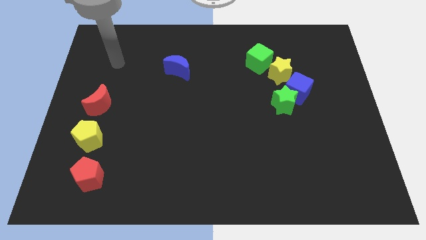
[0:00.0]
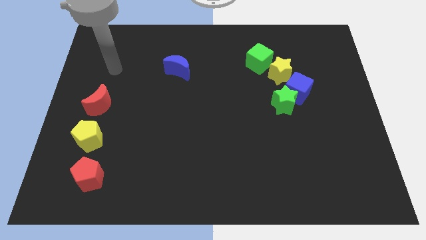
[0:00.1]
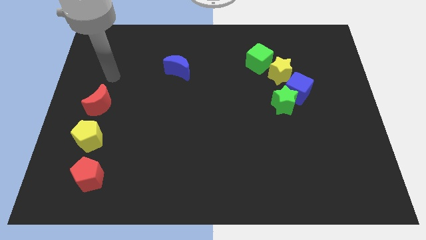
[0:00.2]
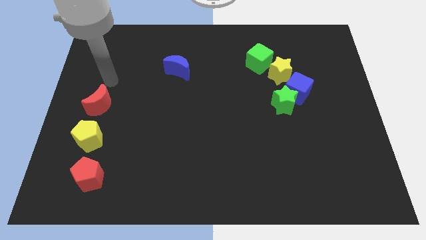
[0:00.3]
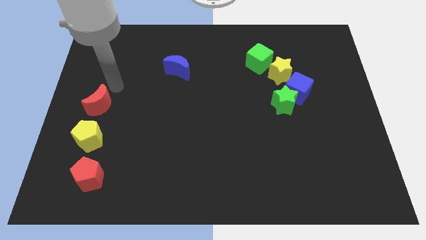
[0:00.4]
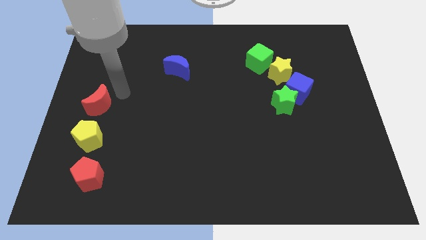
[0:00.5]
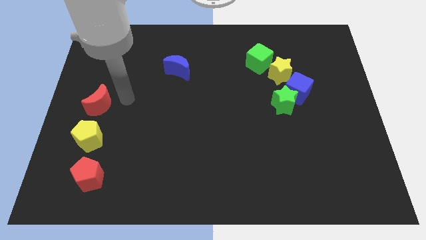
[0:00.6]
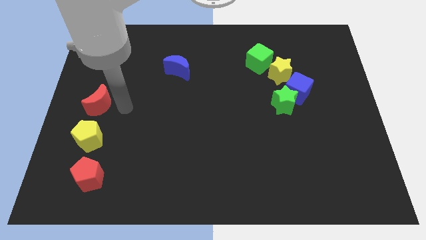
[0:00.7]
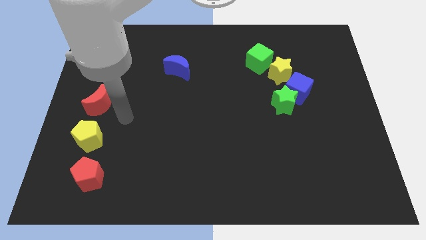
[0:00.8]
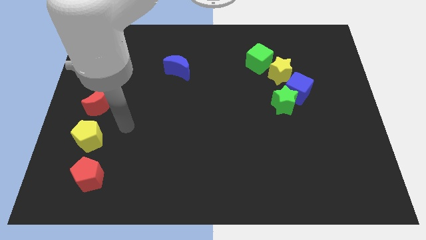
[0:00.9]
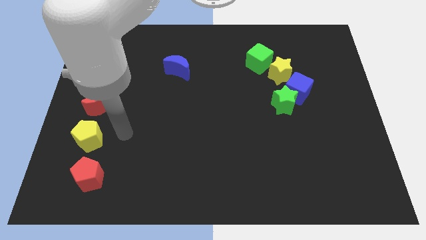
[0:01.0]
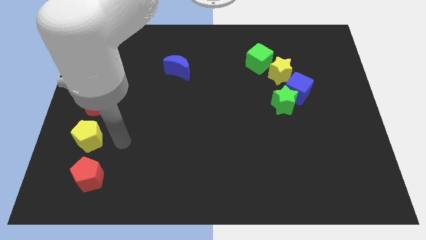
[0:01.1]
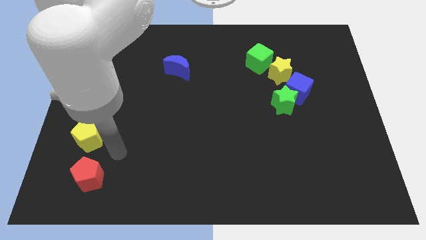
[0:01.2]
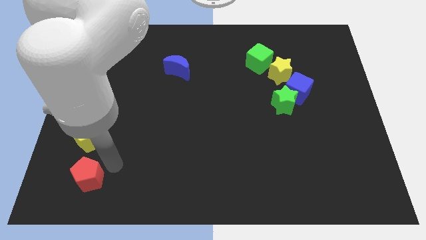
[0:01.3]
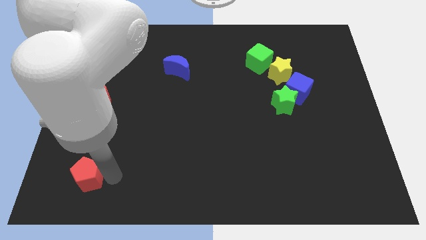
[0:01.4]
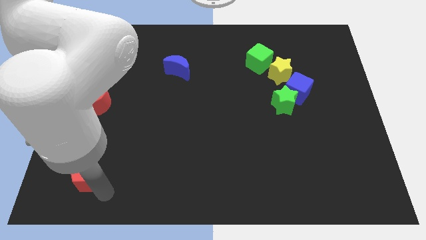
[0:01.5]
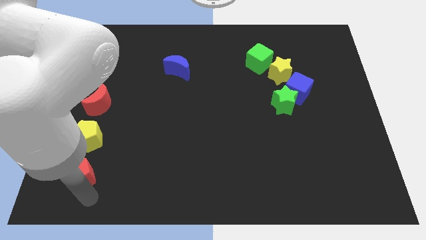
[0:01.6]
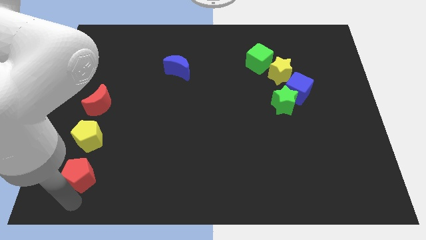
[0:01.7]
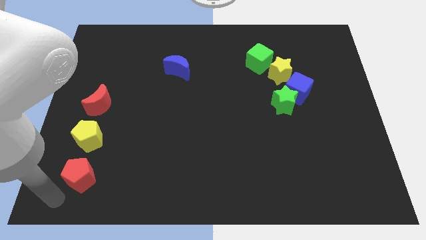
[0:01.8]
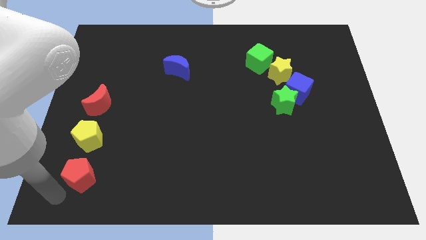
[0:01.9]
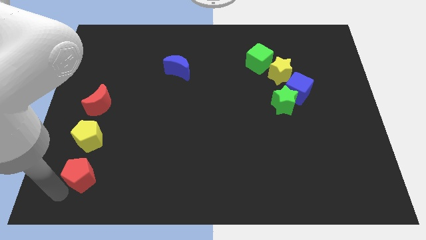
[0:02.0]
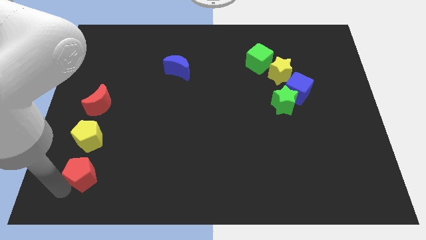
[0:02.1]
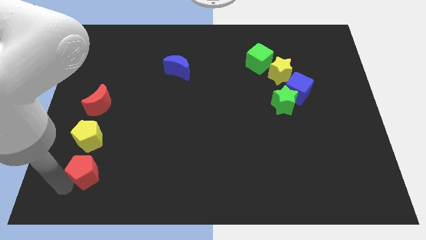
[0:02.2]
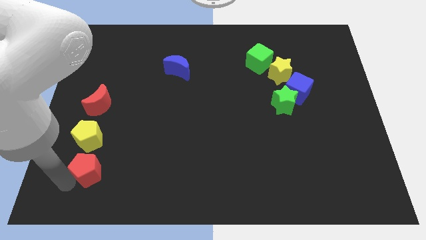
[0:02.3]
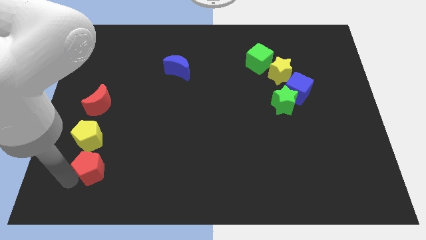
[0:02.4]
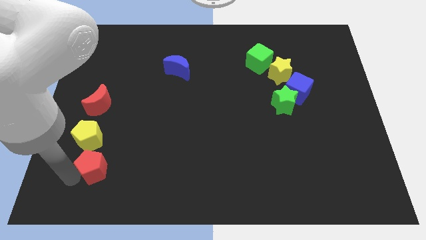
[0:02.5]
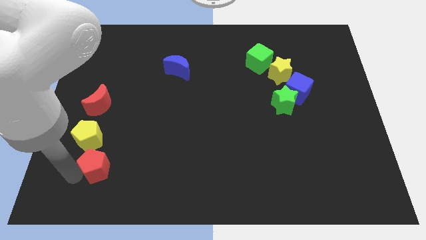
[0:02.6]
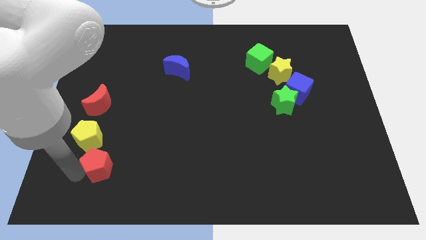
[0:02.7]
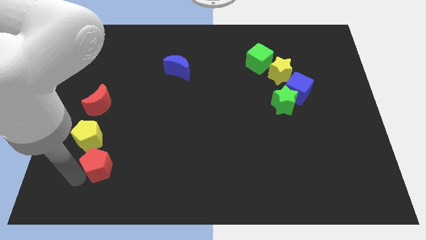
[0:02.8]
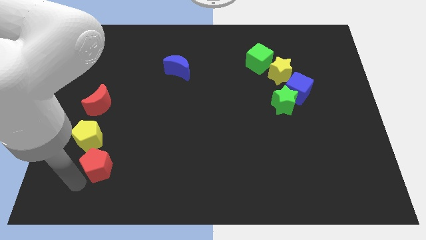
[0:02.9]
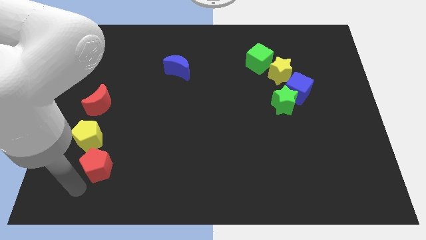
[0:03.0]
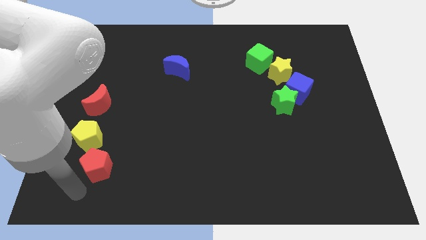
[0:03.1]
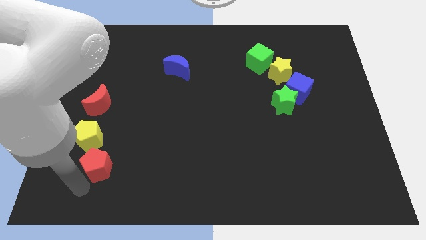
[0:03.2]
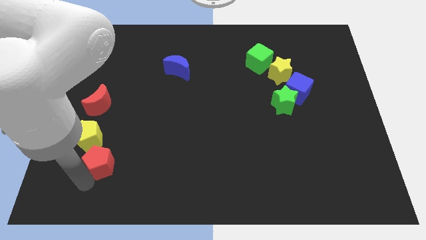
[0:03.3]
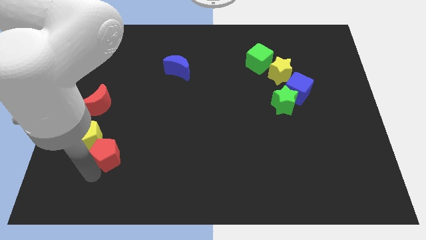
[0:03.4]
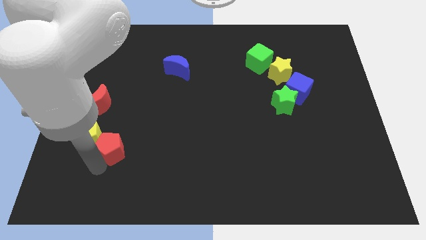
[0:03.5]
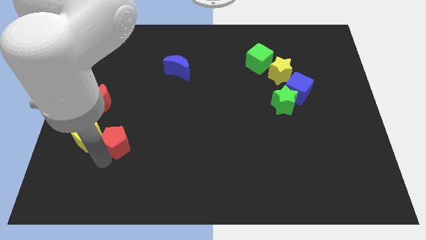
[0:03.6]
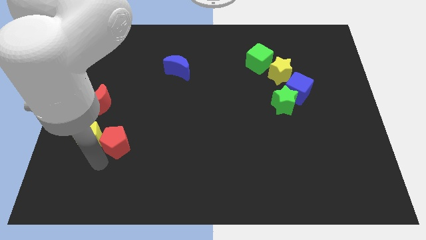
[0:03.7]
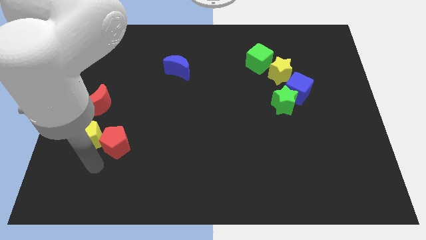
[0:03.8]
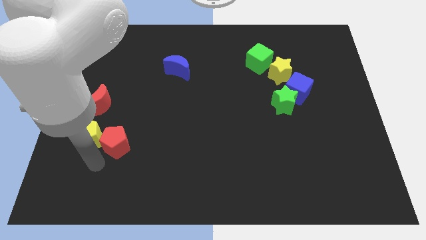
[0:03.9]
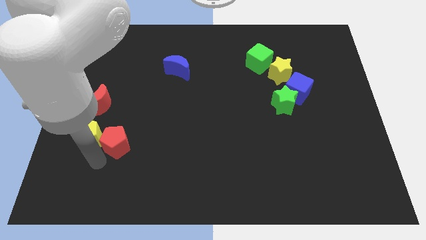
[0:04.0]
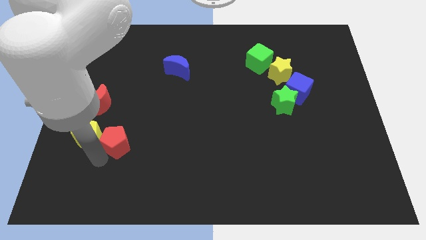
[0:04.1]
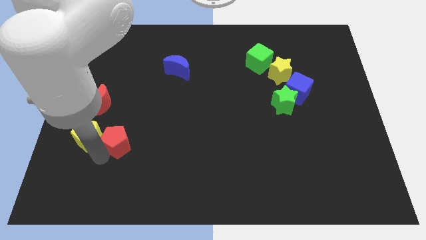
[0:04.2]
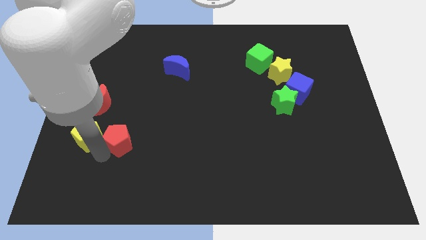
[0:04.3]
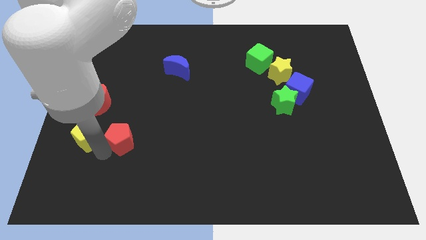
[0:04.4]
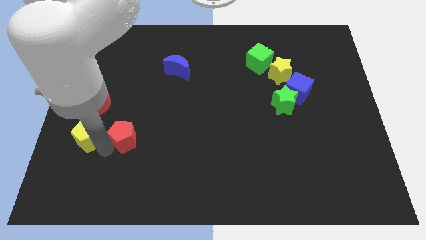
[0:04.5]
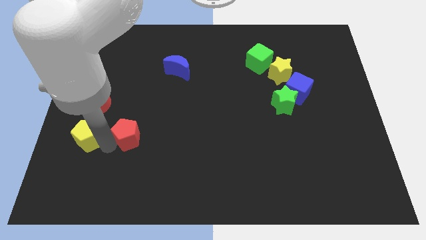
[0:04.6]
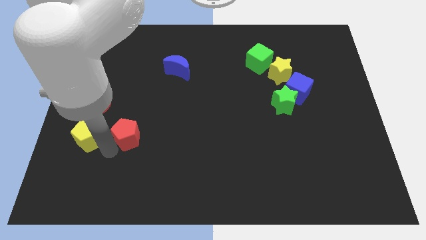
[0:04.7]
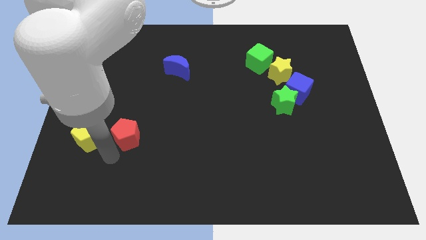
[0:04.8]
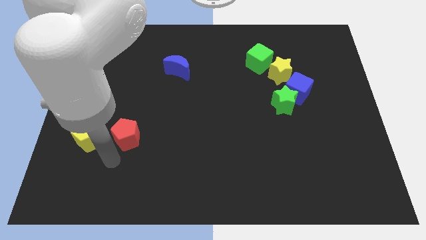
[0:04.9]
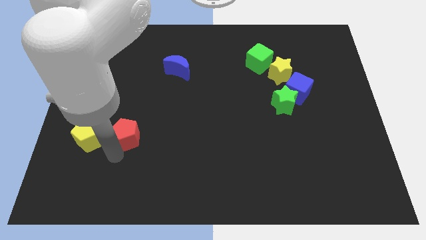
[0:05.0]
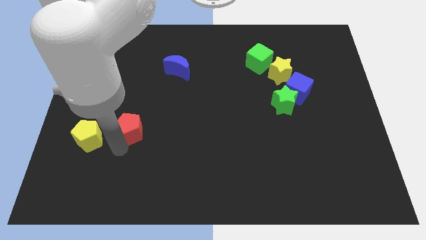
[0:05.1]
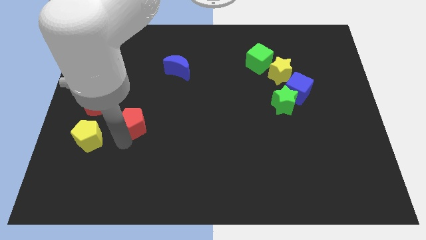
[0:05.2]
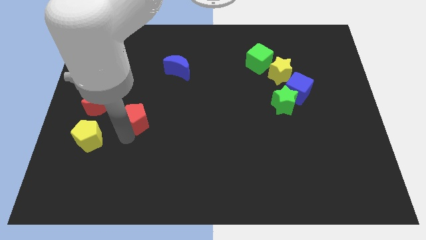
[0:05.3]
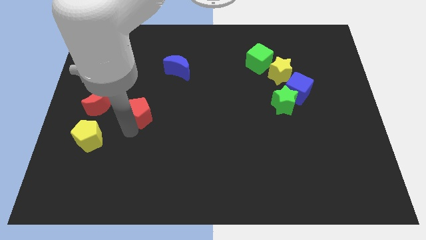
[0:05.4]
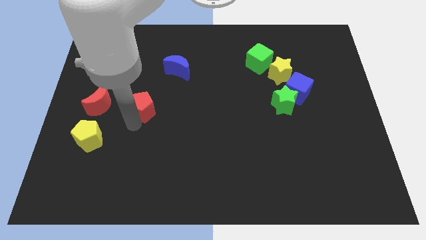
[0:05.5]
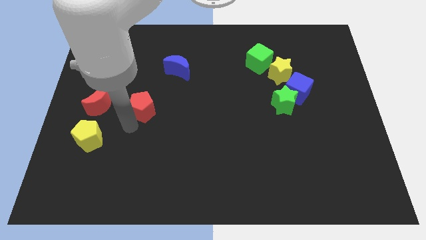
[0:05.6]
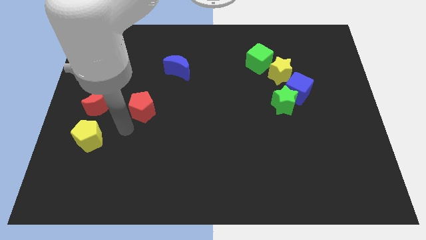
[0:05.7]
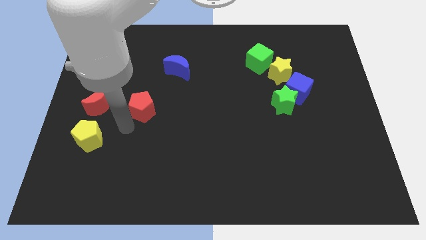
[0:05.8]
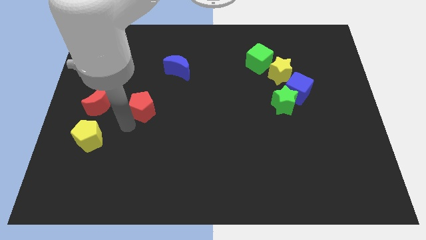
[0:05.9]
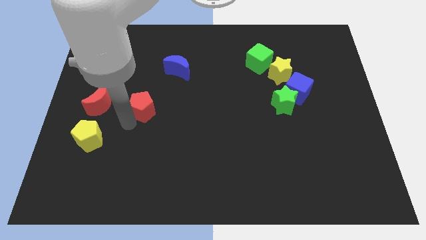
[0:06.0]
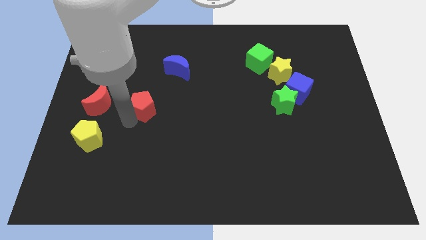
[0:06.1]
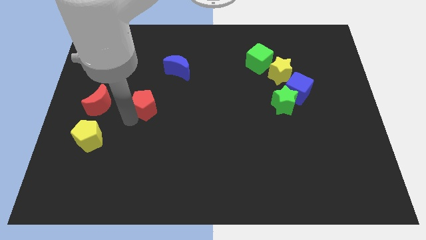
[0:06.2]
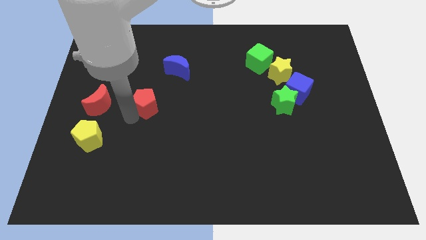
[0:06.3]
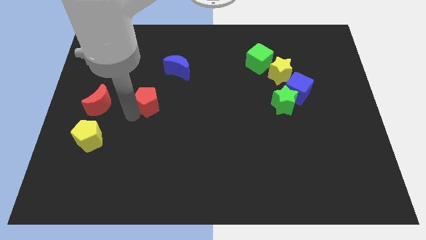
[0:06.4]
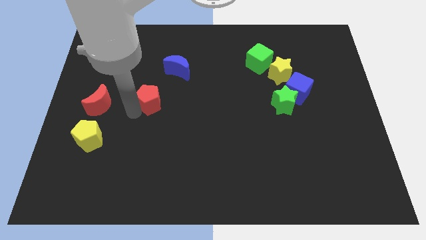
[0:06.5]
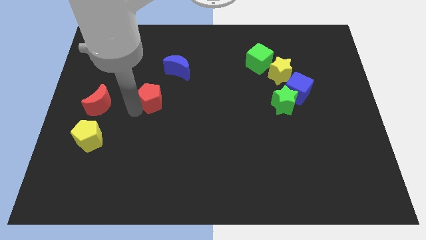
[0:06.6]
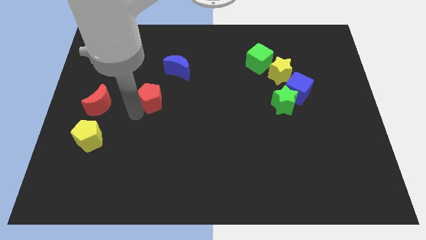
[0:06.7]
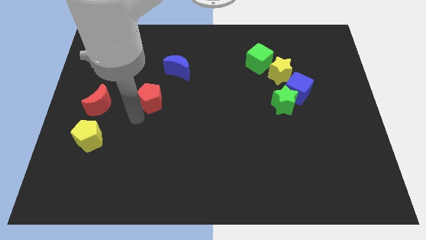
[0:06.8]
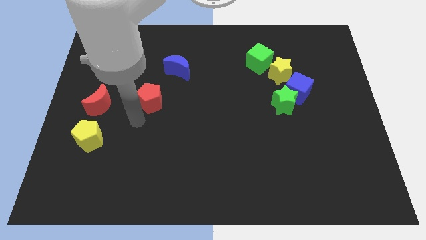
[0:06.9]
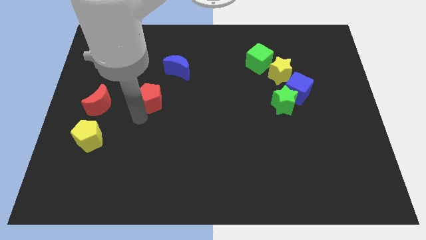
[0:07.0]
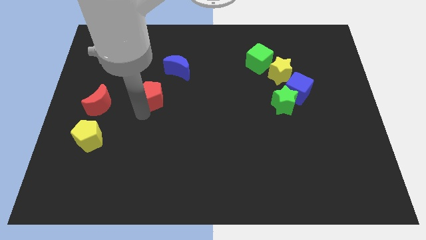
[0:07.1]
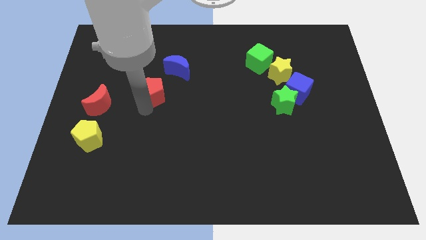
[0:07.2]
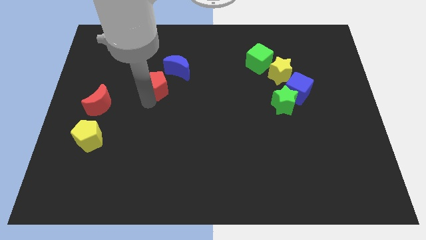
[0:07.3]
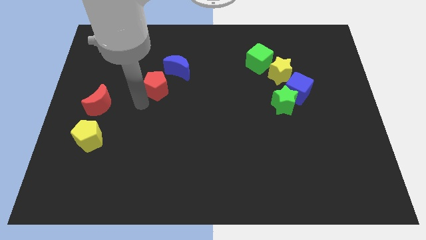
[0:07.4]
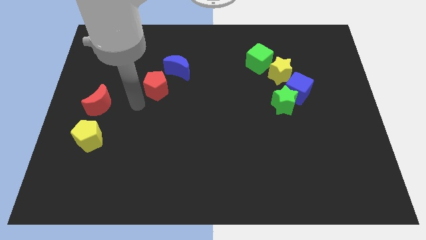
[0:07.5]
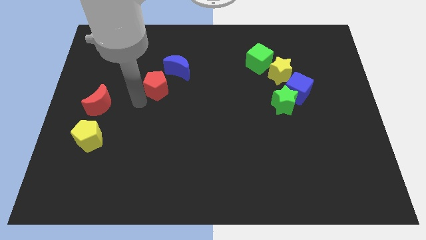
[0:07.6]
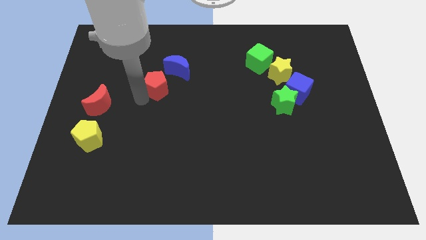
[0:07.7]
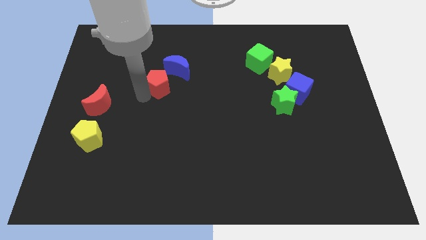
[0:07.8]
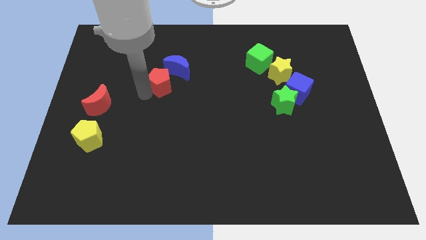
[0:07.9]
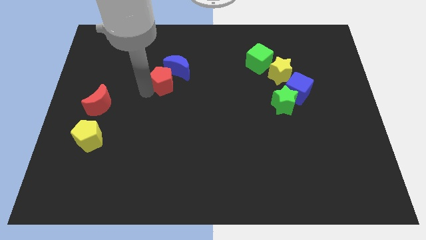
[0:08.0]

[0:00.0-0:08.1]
push the red pentagon close to the blue moon
